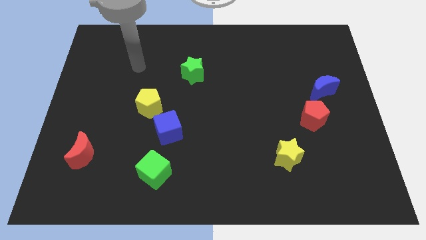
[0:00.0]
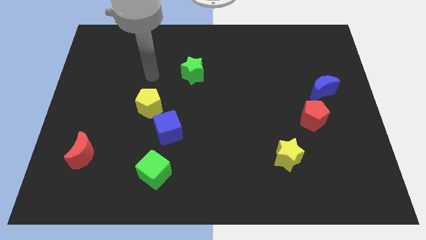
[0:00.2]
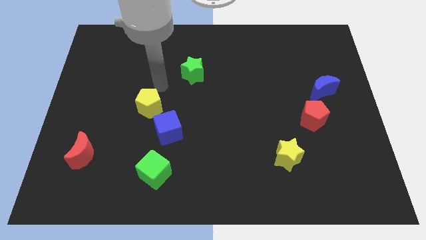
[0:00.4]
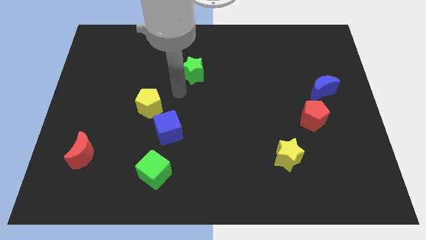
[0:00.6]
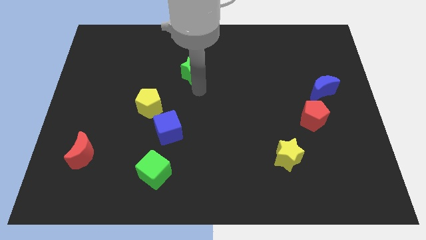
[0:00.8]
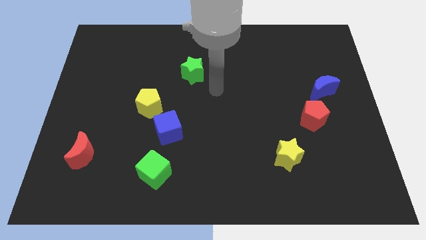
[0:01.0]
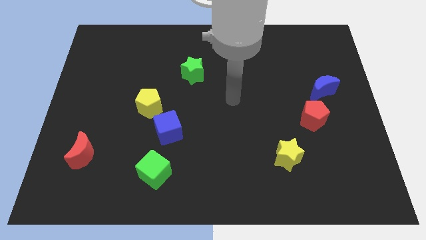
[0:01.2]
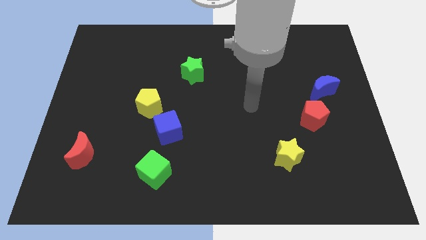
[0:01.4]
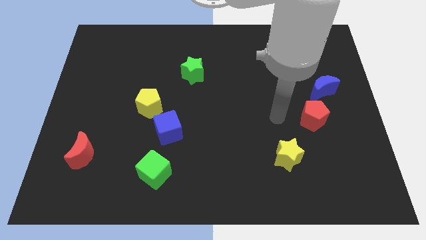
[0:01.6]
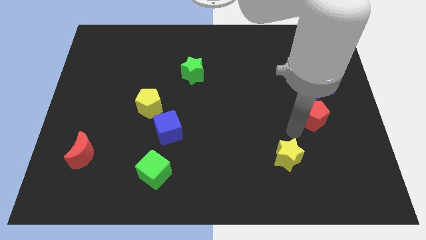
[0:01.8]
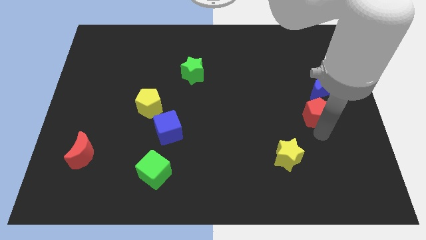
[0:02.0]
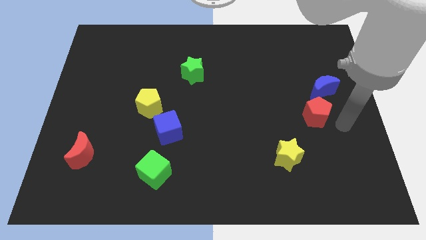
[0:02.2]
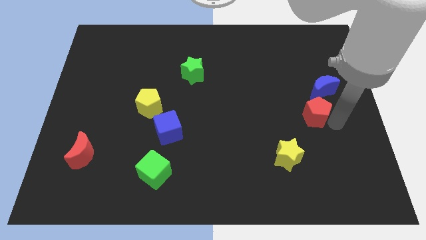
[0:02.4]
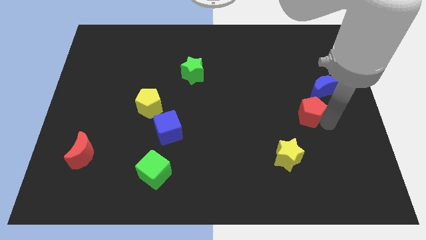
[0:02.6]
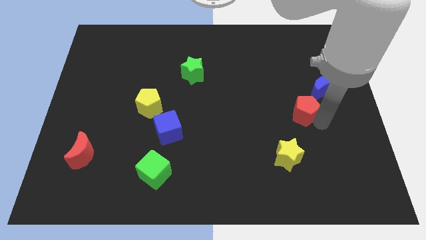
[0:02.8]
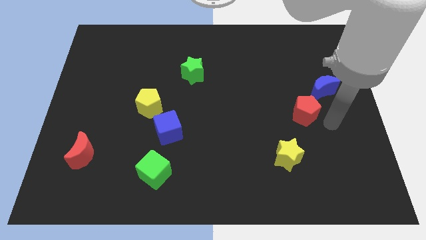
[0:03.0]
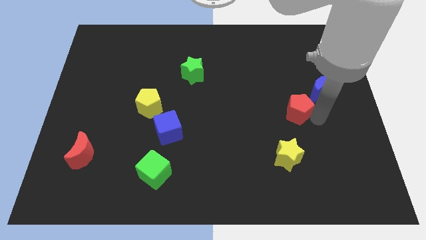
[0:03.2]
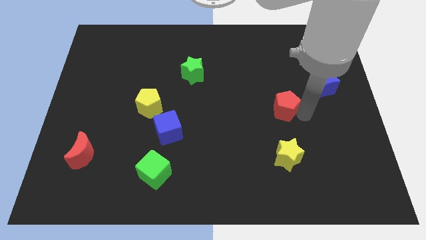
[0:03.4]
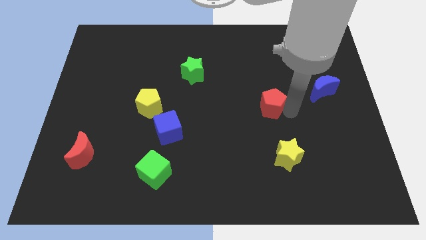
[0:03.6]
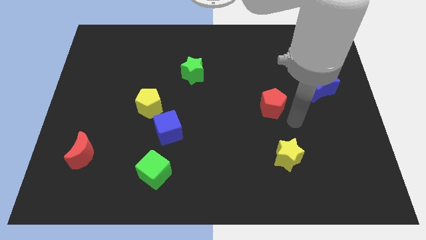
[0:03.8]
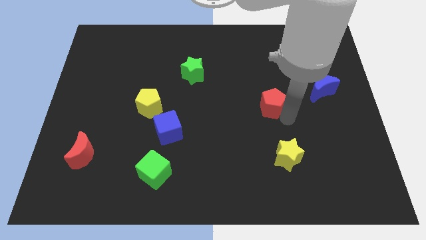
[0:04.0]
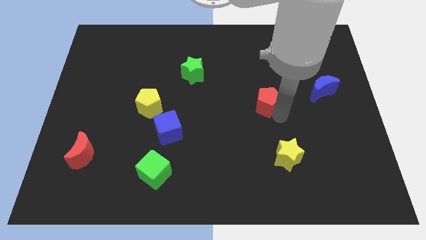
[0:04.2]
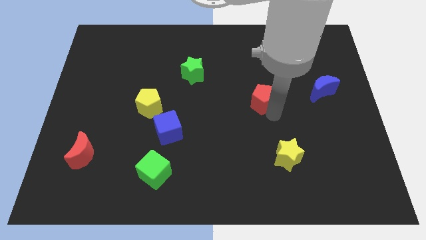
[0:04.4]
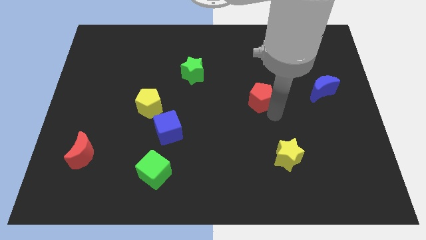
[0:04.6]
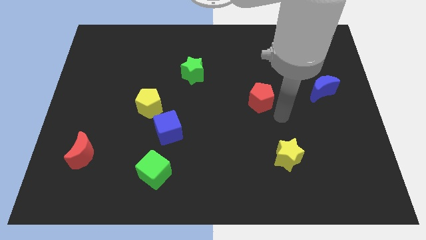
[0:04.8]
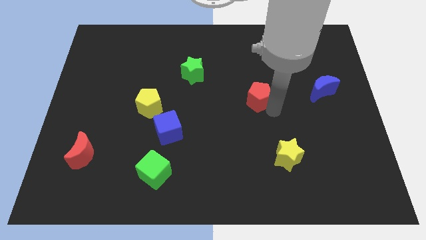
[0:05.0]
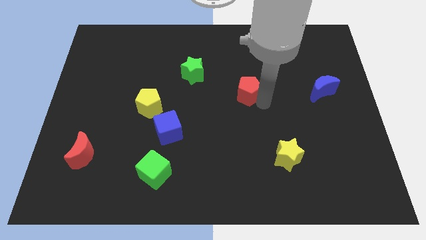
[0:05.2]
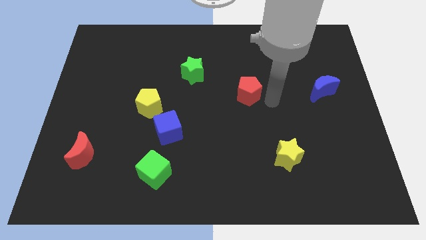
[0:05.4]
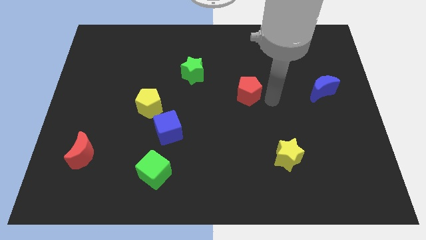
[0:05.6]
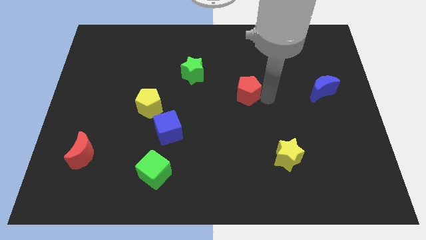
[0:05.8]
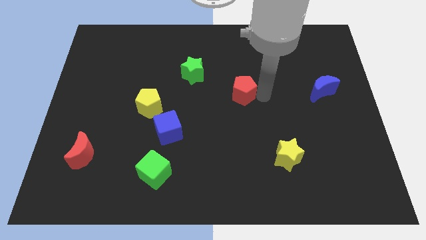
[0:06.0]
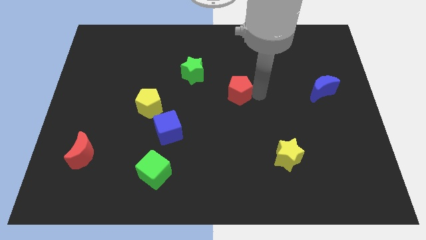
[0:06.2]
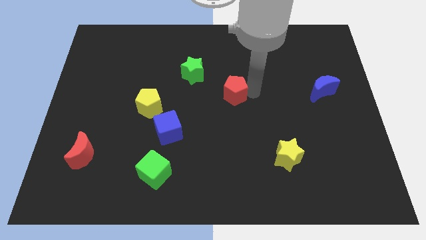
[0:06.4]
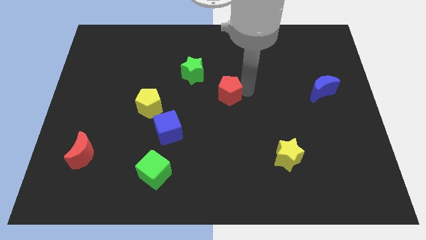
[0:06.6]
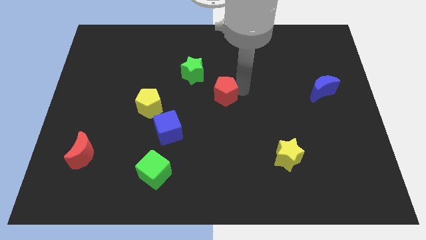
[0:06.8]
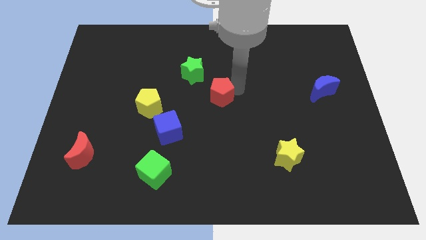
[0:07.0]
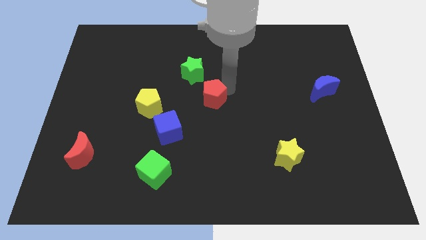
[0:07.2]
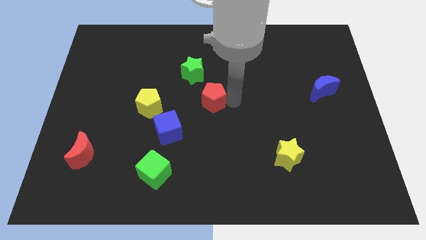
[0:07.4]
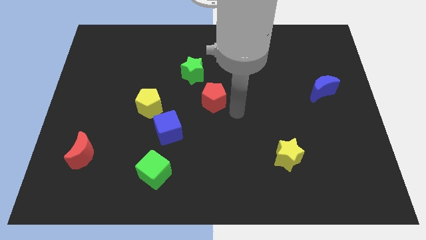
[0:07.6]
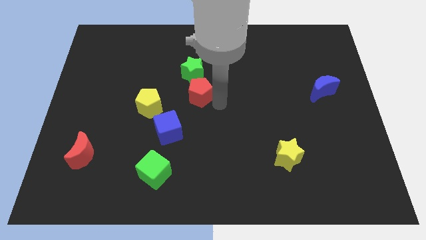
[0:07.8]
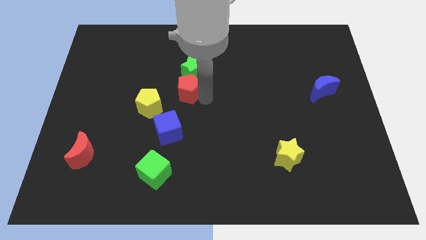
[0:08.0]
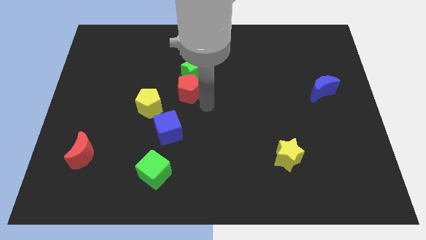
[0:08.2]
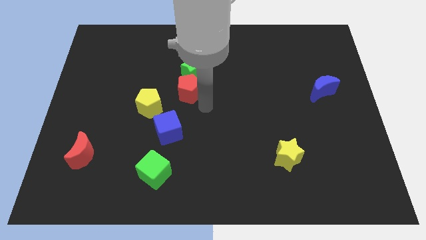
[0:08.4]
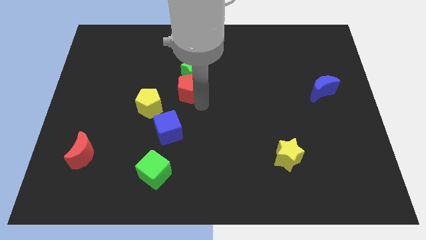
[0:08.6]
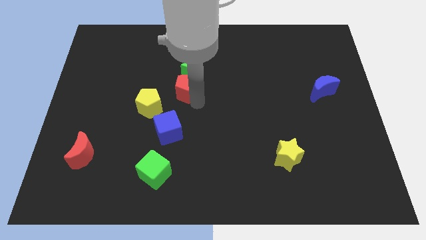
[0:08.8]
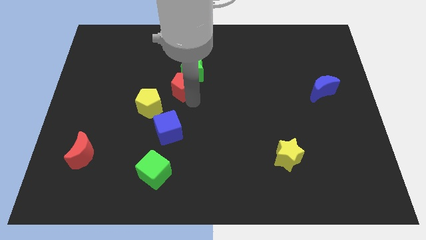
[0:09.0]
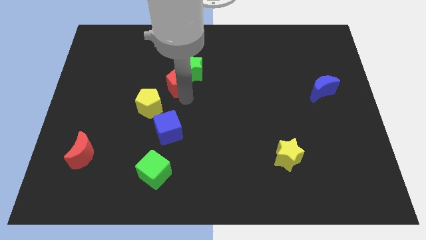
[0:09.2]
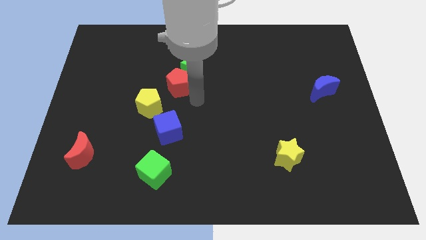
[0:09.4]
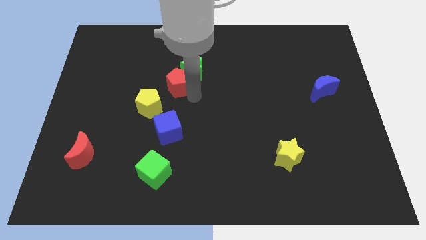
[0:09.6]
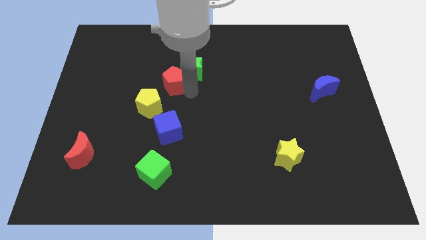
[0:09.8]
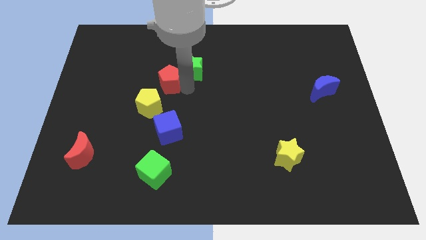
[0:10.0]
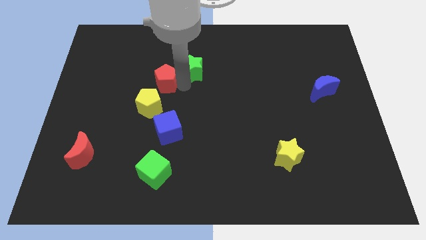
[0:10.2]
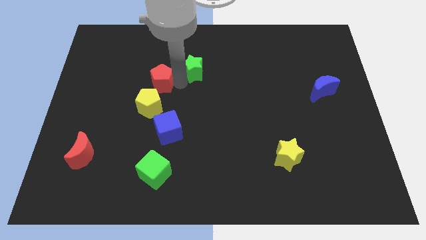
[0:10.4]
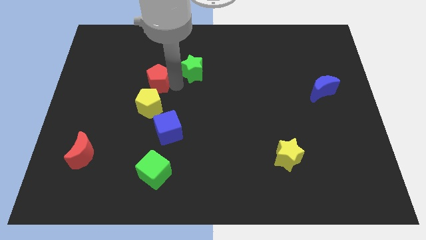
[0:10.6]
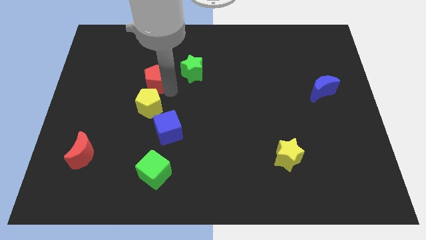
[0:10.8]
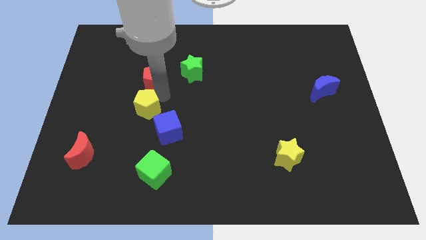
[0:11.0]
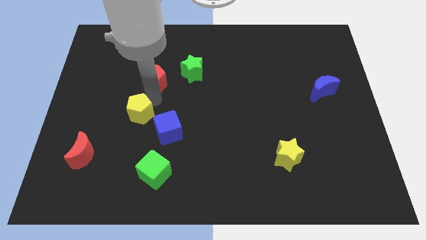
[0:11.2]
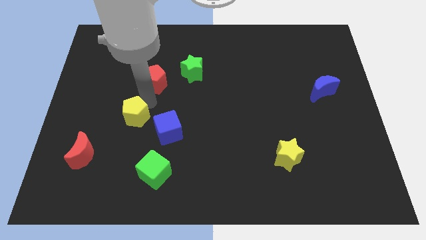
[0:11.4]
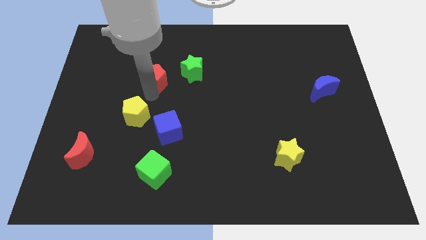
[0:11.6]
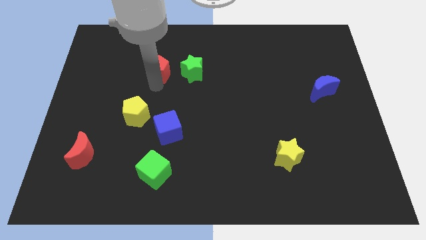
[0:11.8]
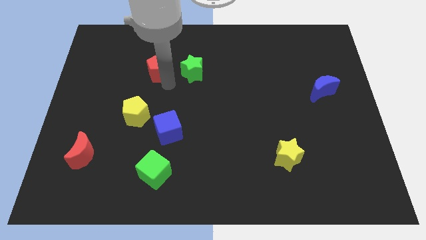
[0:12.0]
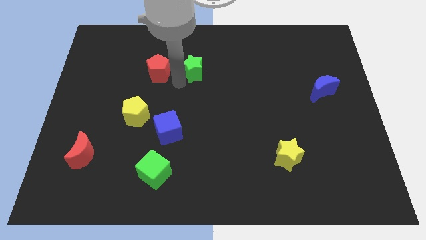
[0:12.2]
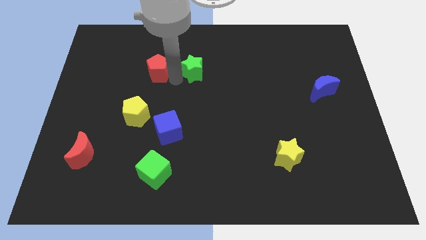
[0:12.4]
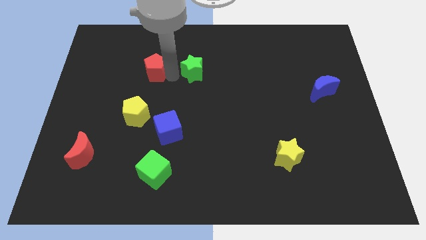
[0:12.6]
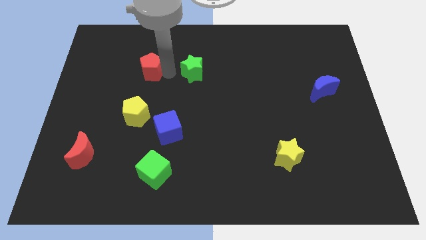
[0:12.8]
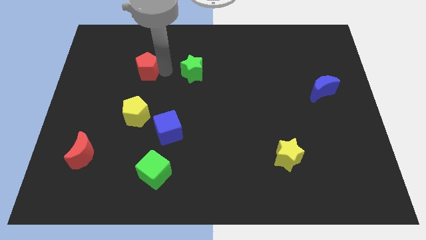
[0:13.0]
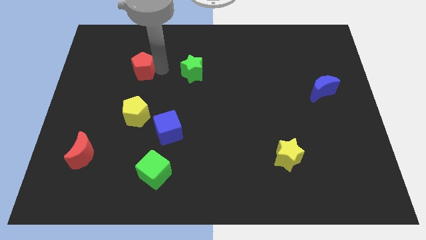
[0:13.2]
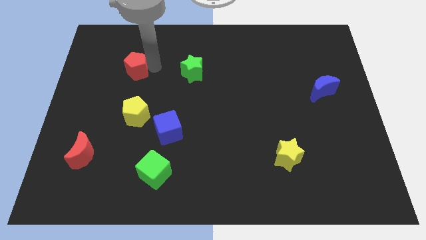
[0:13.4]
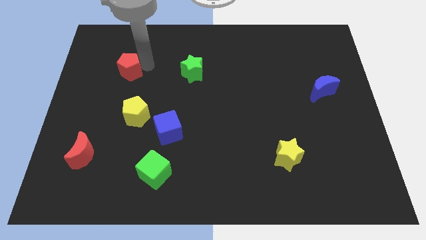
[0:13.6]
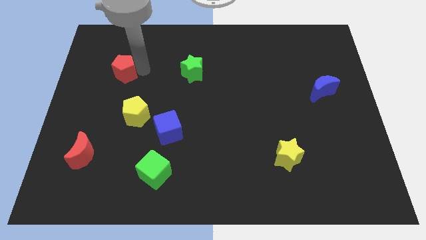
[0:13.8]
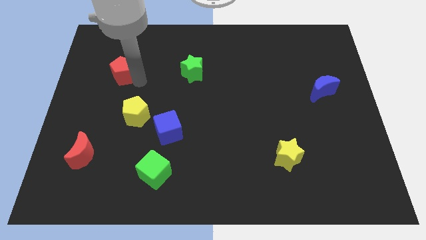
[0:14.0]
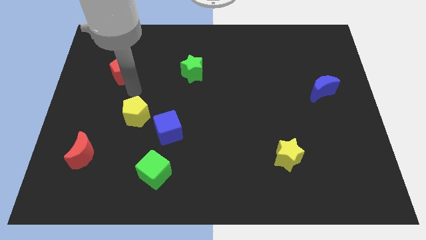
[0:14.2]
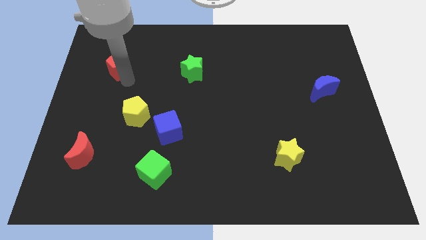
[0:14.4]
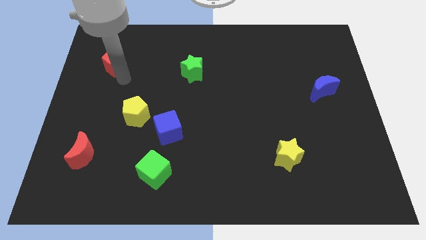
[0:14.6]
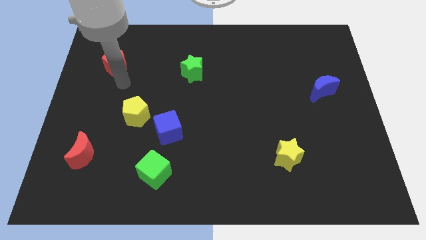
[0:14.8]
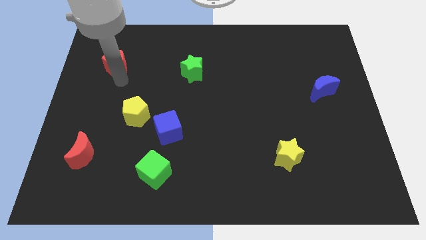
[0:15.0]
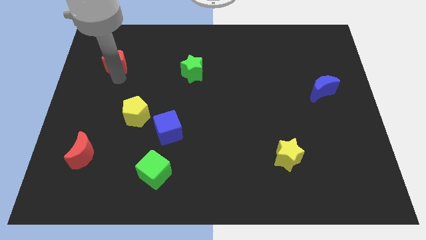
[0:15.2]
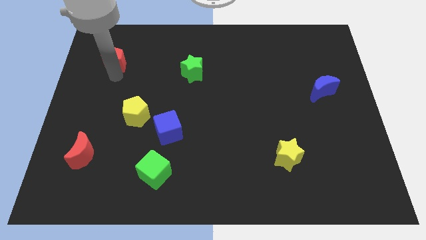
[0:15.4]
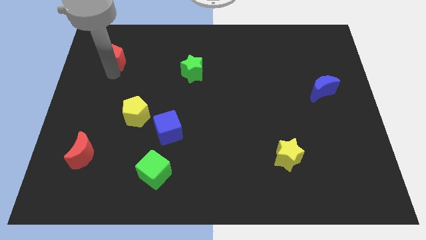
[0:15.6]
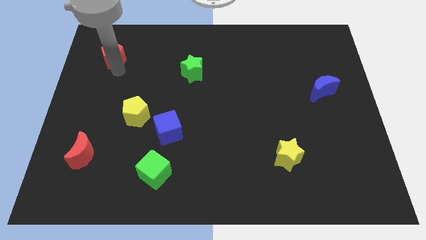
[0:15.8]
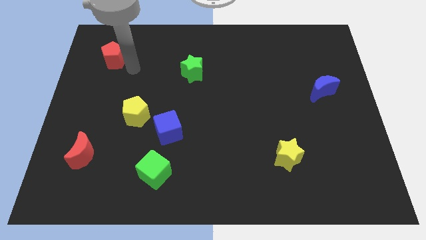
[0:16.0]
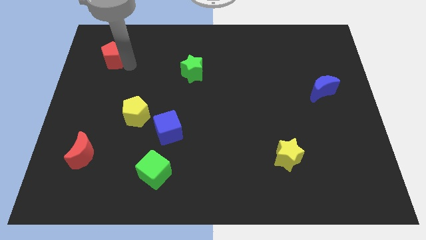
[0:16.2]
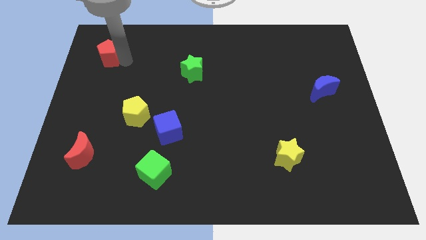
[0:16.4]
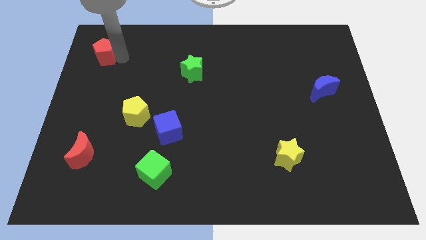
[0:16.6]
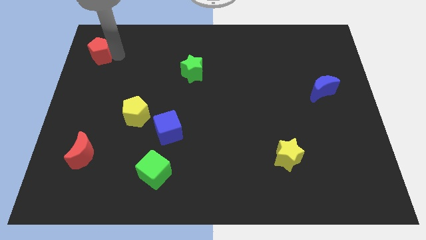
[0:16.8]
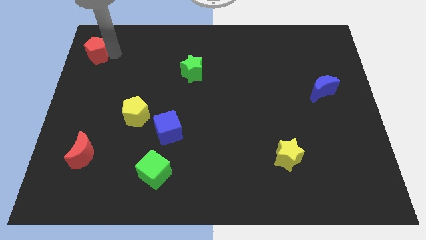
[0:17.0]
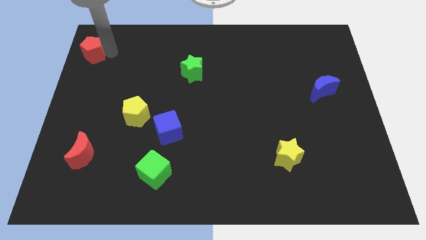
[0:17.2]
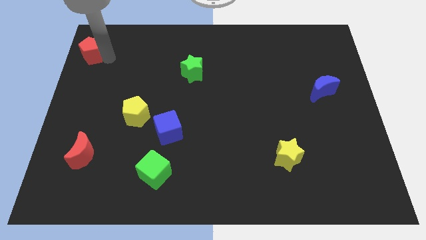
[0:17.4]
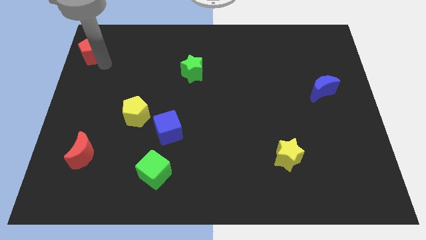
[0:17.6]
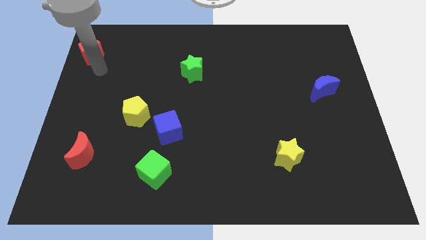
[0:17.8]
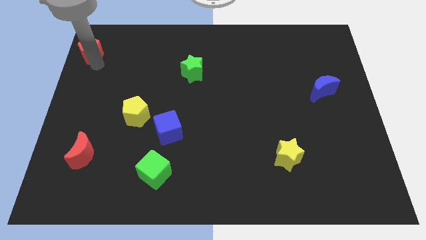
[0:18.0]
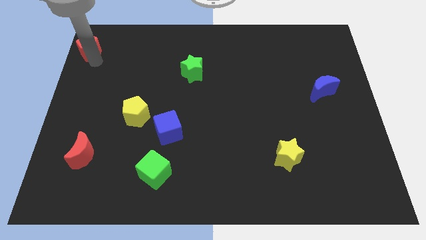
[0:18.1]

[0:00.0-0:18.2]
put the red pentagon to the top left of the board
